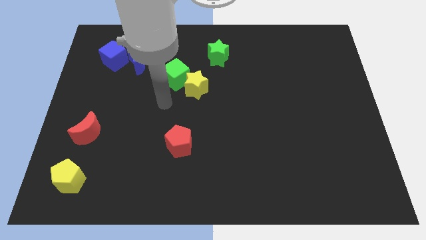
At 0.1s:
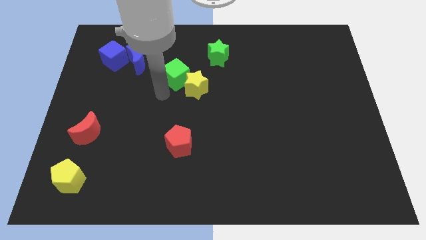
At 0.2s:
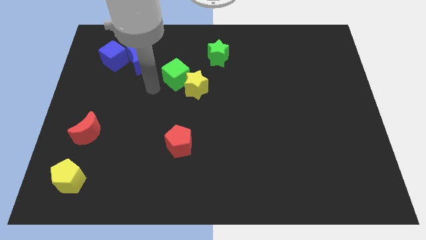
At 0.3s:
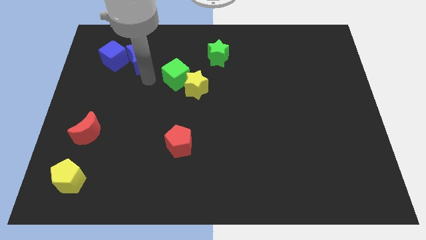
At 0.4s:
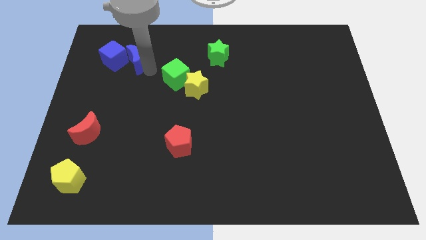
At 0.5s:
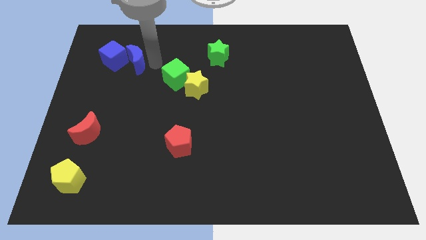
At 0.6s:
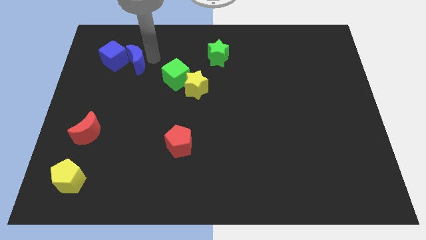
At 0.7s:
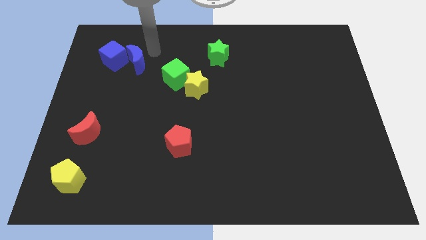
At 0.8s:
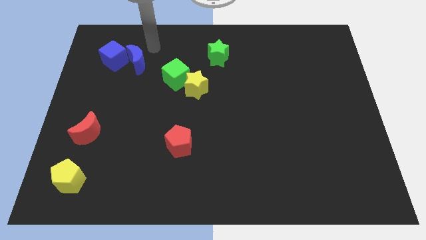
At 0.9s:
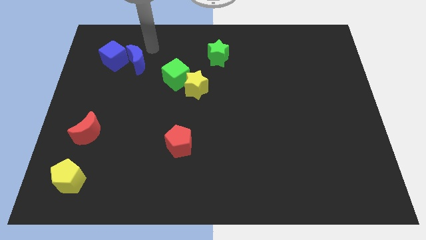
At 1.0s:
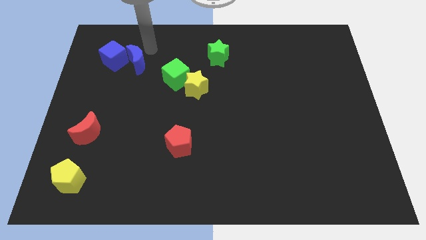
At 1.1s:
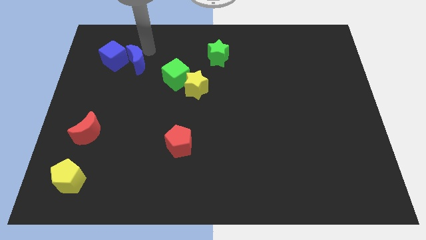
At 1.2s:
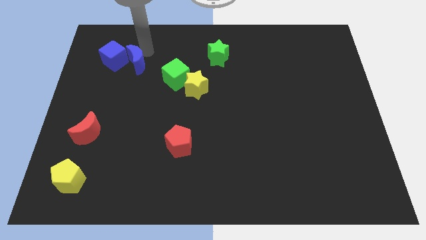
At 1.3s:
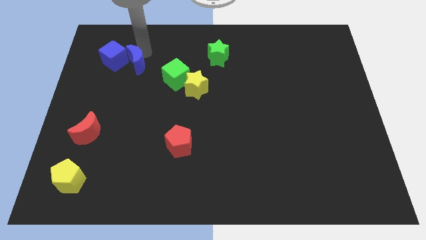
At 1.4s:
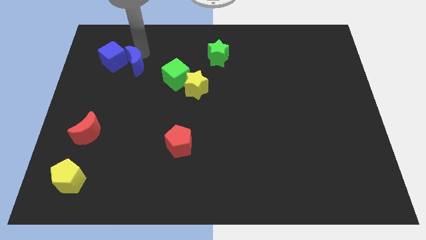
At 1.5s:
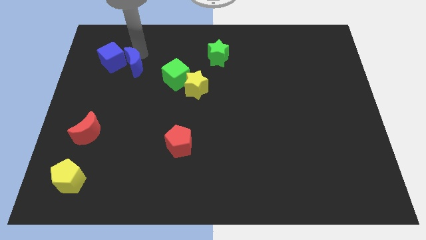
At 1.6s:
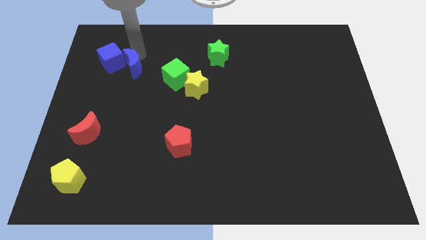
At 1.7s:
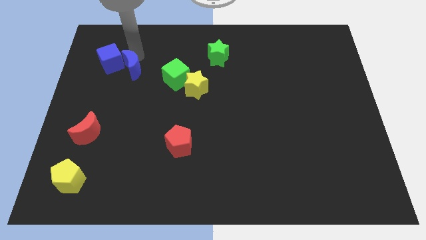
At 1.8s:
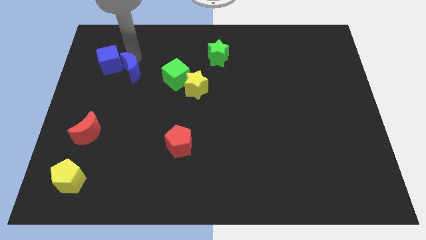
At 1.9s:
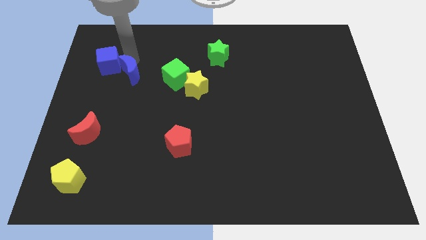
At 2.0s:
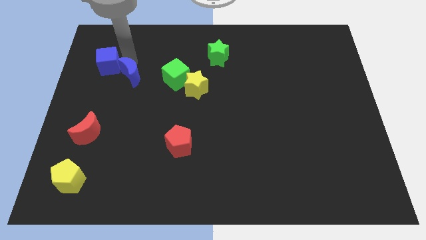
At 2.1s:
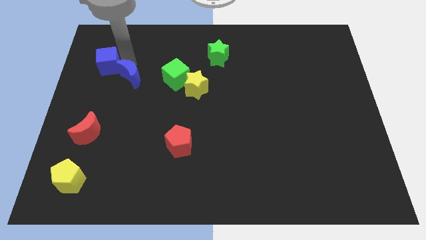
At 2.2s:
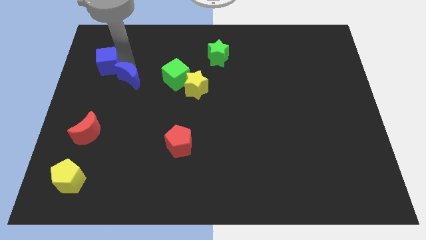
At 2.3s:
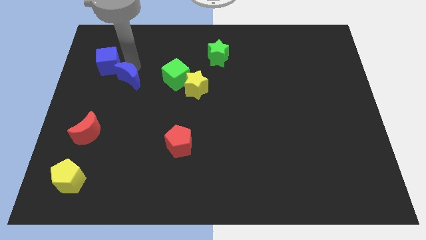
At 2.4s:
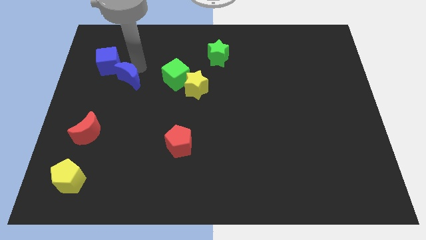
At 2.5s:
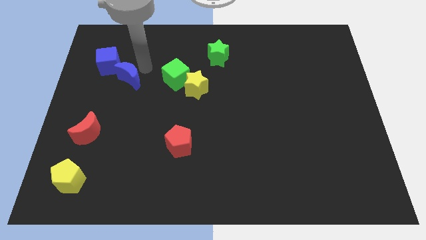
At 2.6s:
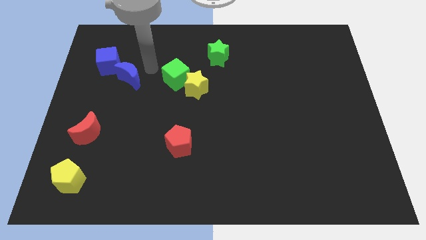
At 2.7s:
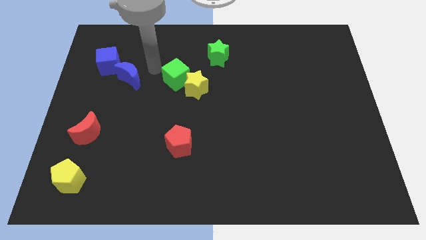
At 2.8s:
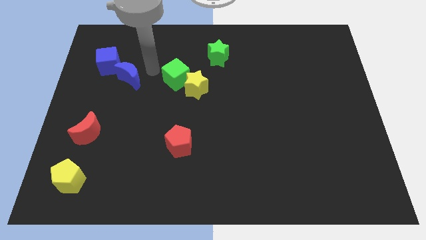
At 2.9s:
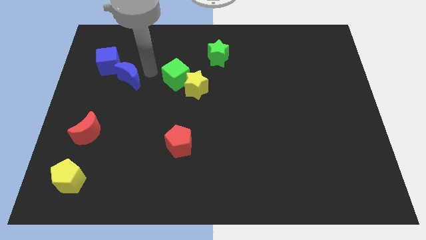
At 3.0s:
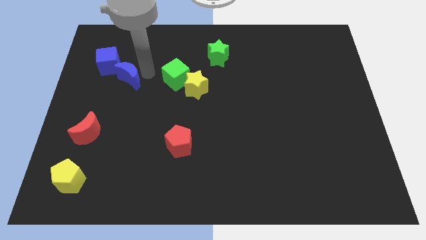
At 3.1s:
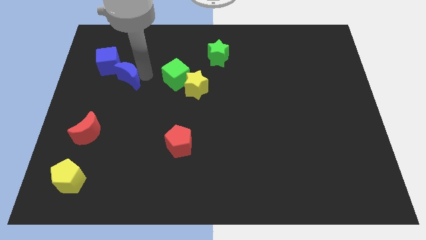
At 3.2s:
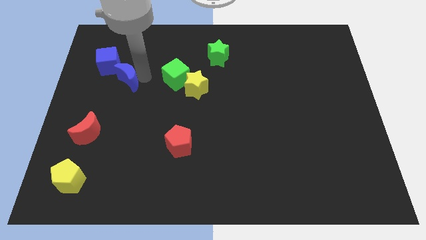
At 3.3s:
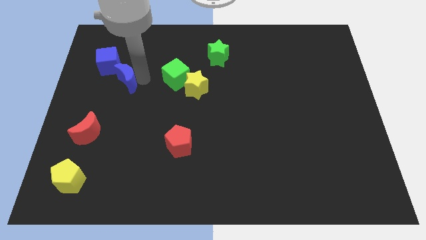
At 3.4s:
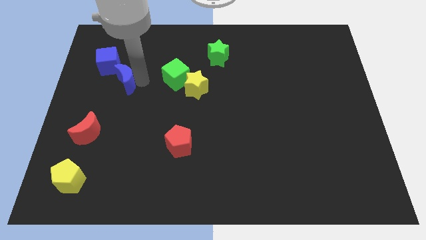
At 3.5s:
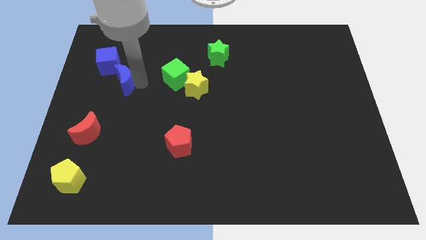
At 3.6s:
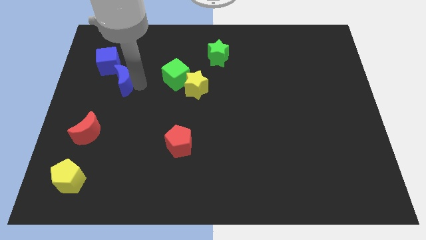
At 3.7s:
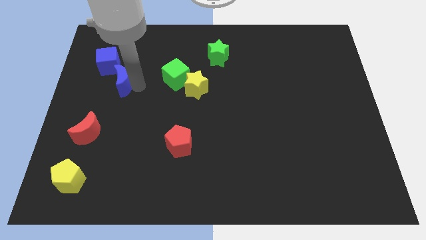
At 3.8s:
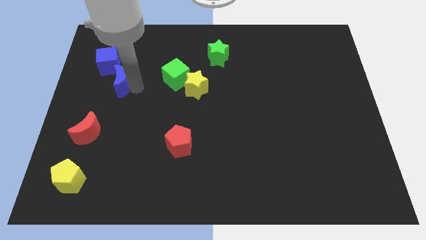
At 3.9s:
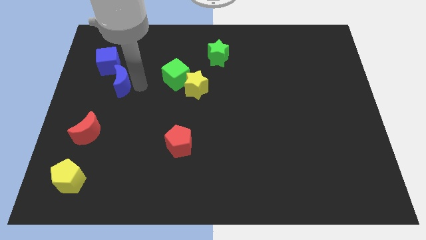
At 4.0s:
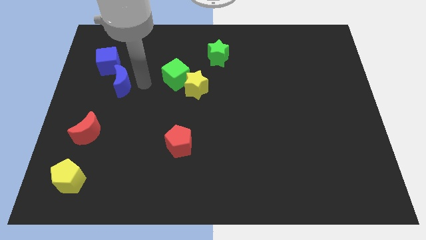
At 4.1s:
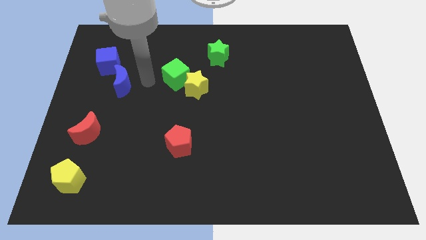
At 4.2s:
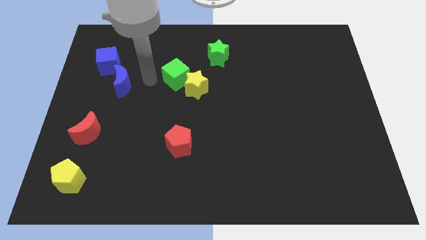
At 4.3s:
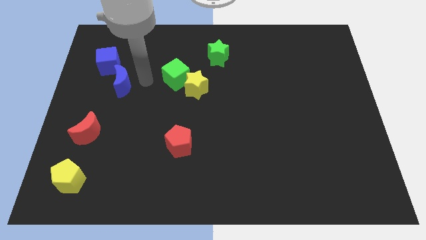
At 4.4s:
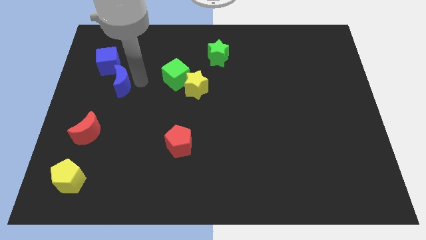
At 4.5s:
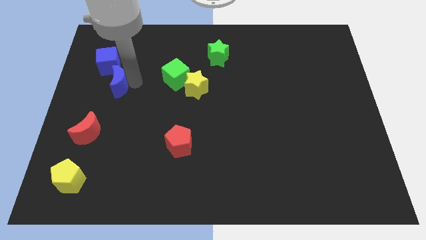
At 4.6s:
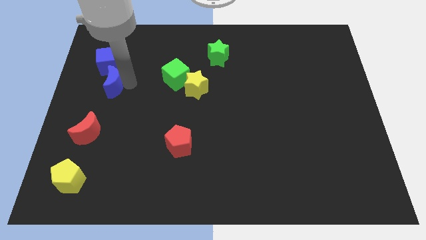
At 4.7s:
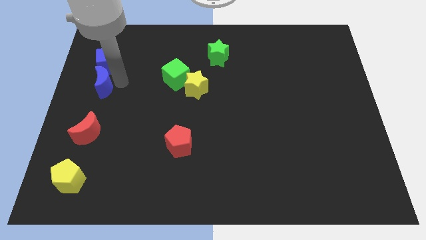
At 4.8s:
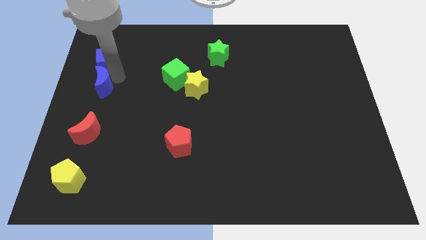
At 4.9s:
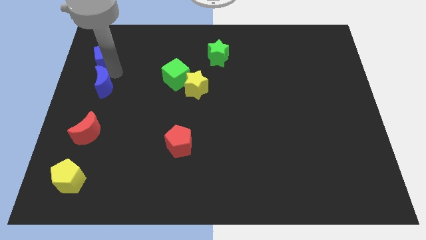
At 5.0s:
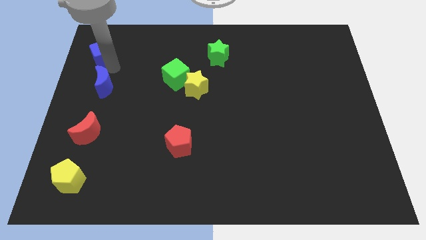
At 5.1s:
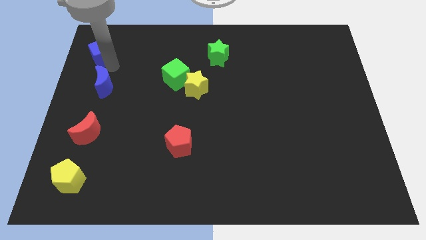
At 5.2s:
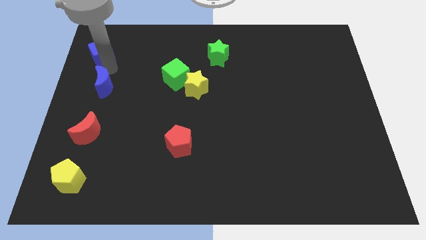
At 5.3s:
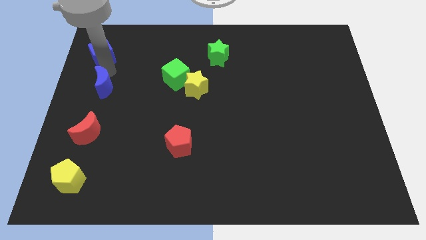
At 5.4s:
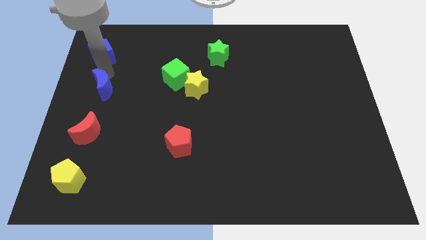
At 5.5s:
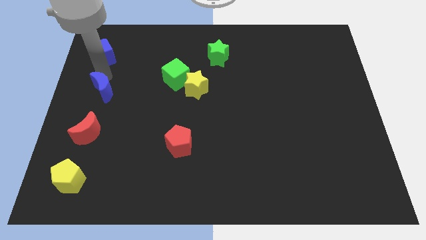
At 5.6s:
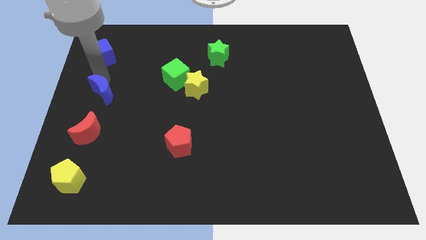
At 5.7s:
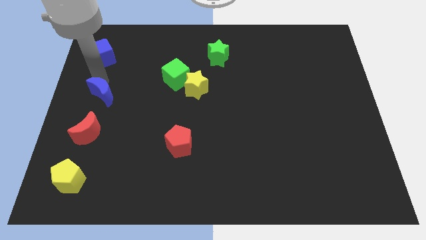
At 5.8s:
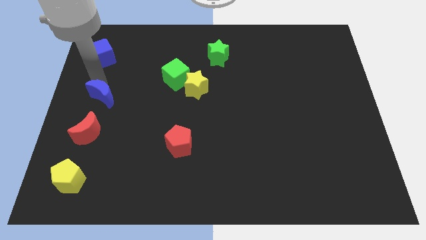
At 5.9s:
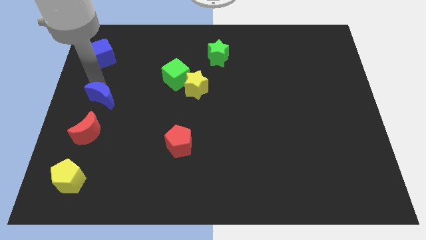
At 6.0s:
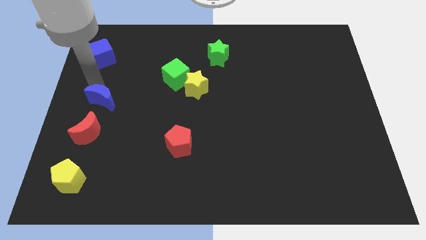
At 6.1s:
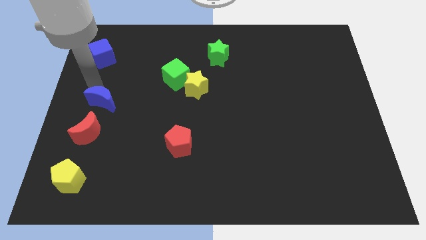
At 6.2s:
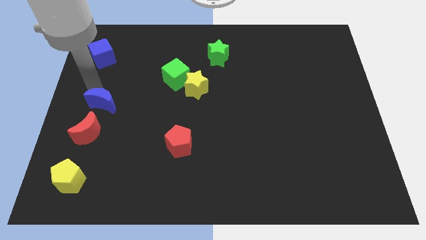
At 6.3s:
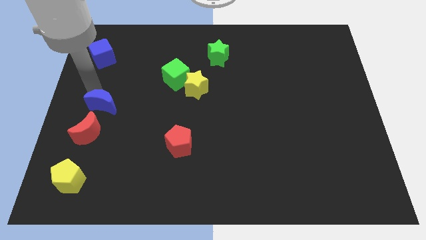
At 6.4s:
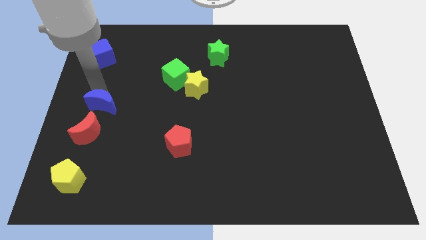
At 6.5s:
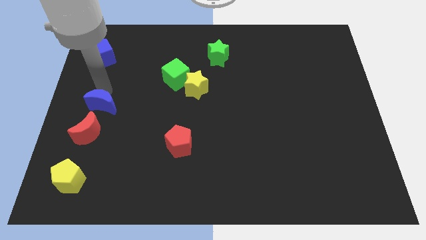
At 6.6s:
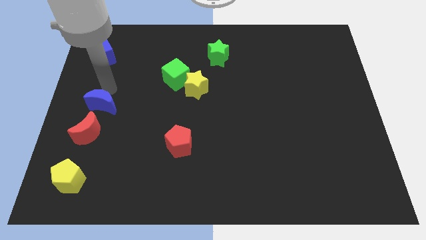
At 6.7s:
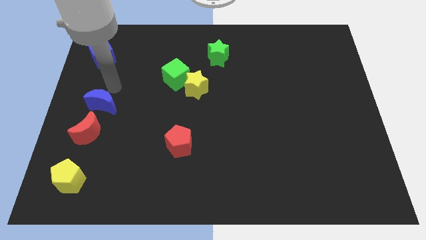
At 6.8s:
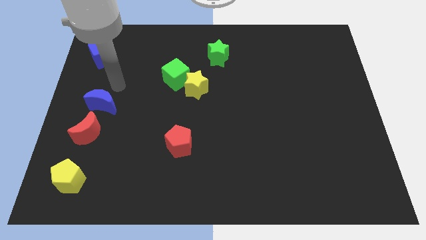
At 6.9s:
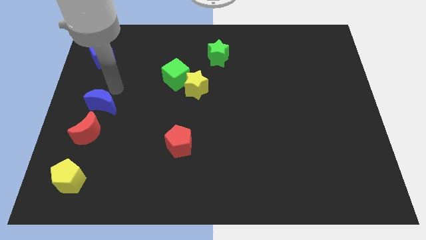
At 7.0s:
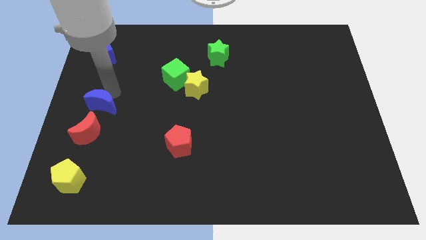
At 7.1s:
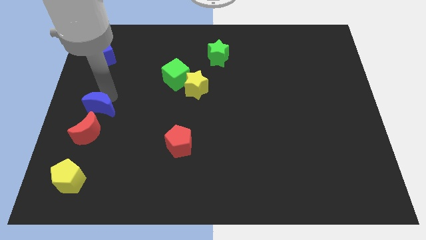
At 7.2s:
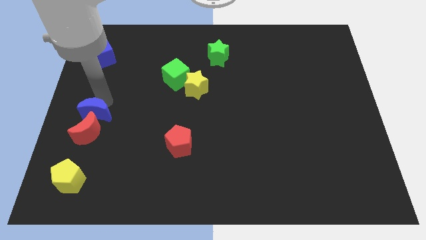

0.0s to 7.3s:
slide the blue moon to the red moon
